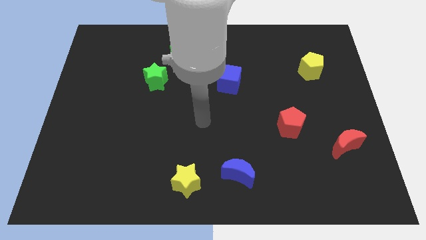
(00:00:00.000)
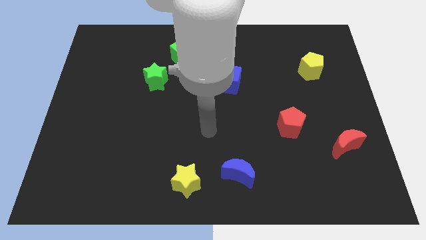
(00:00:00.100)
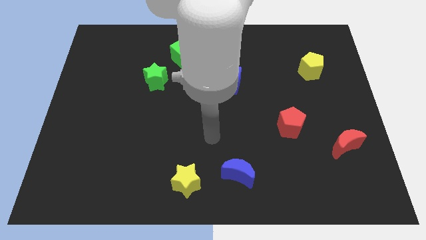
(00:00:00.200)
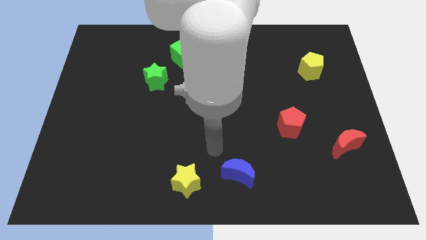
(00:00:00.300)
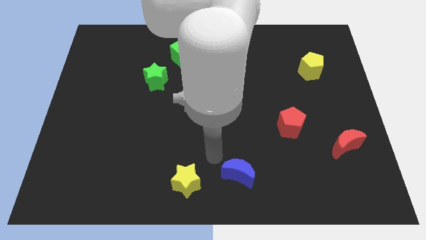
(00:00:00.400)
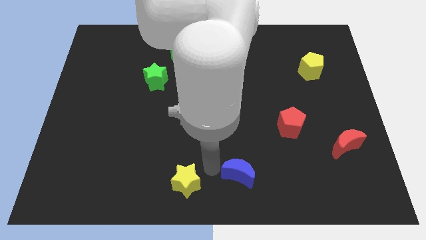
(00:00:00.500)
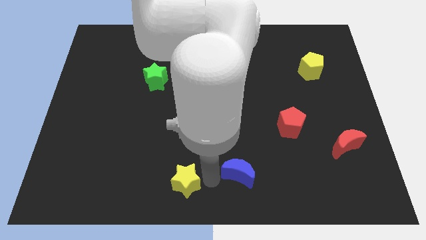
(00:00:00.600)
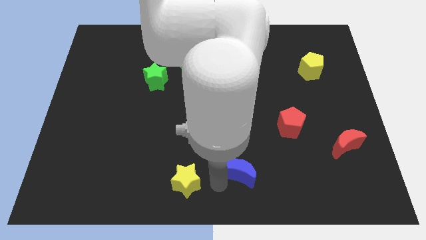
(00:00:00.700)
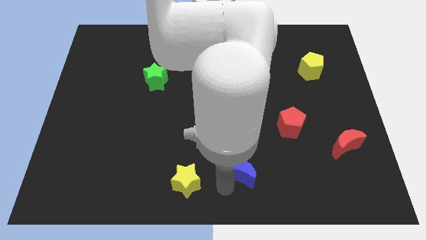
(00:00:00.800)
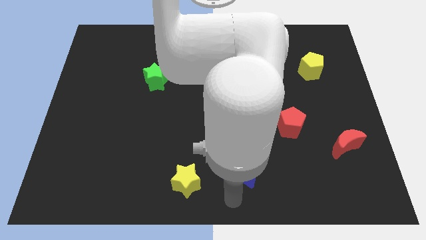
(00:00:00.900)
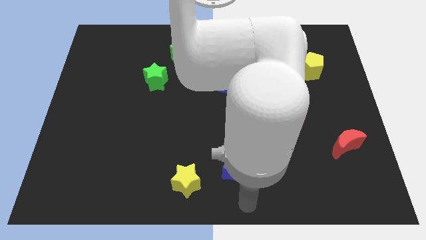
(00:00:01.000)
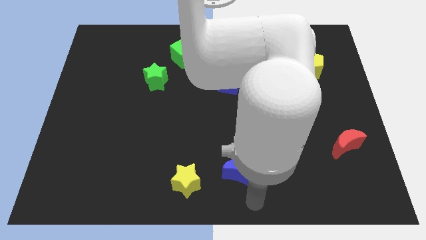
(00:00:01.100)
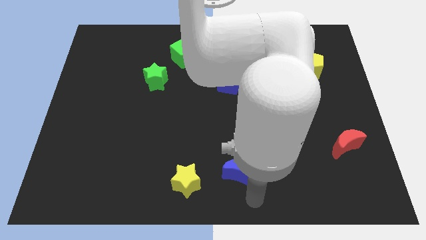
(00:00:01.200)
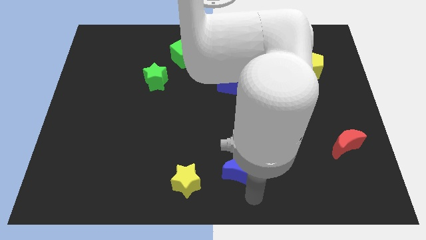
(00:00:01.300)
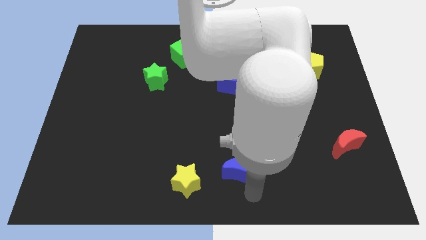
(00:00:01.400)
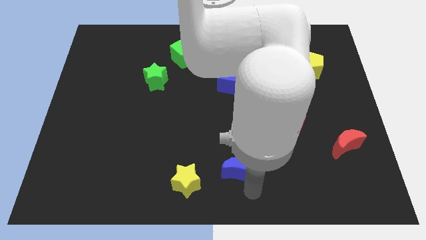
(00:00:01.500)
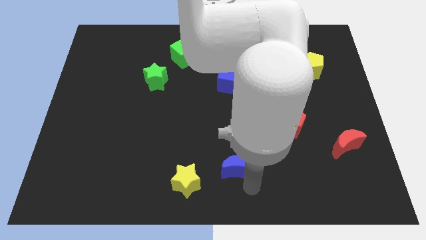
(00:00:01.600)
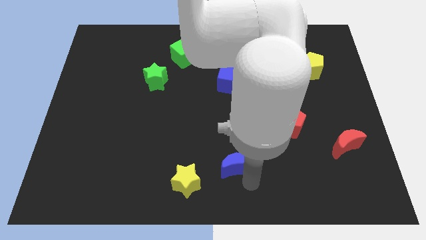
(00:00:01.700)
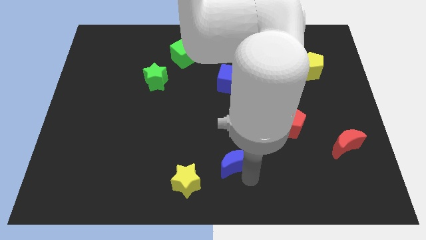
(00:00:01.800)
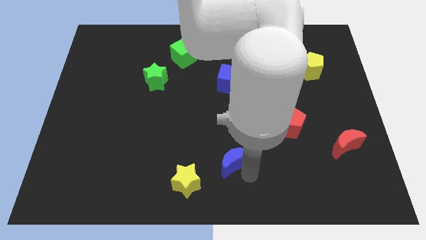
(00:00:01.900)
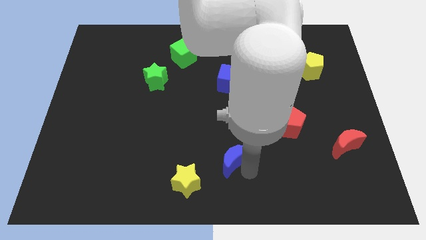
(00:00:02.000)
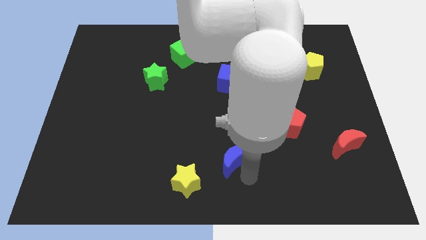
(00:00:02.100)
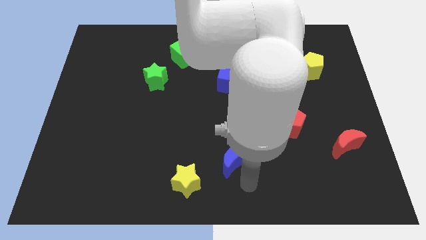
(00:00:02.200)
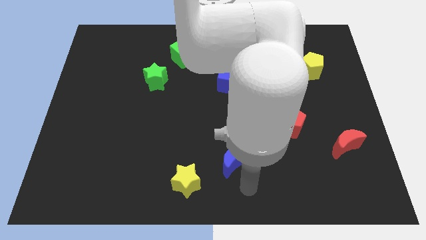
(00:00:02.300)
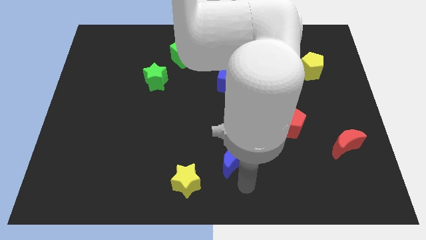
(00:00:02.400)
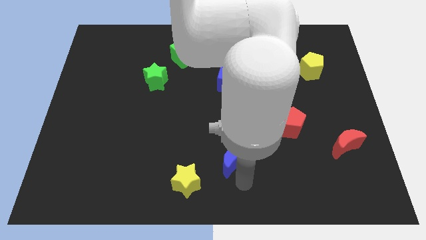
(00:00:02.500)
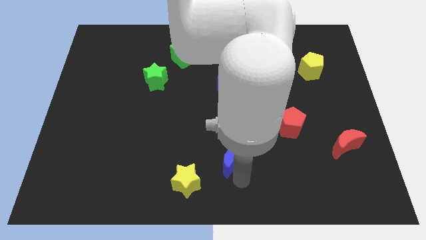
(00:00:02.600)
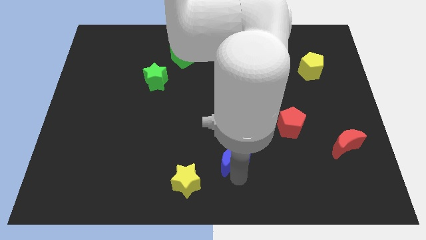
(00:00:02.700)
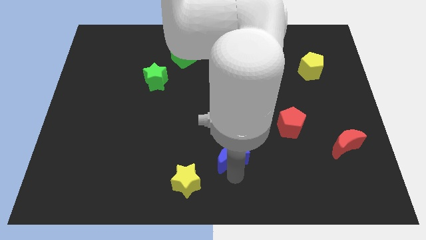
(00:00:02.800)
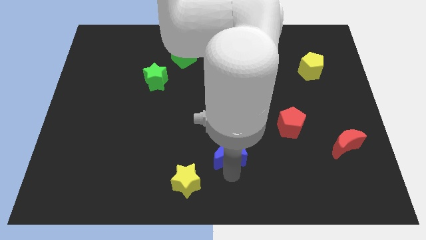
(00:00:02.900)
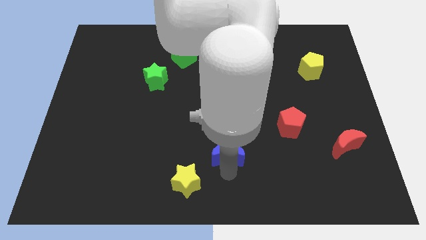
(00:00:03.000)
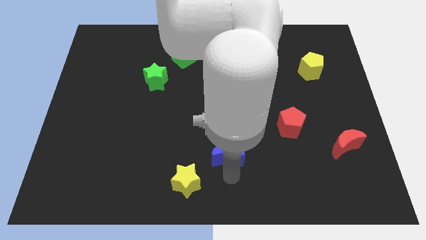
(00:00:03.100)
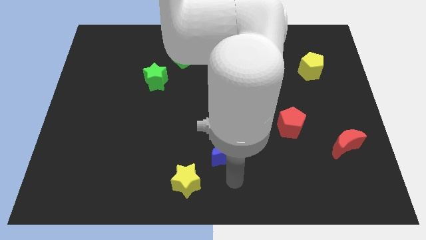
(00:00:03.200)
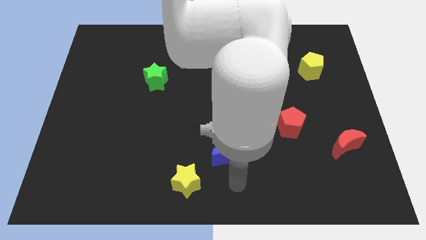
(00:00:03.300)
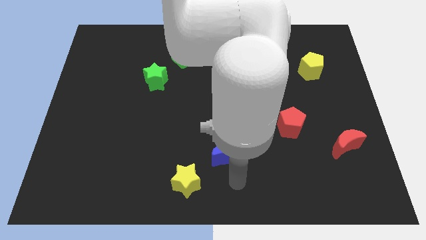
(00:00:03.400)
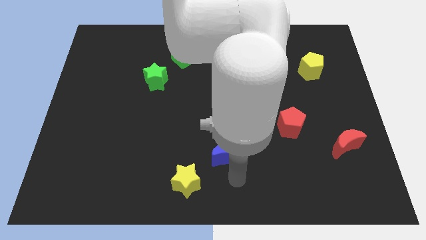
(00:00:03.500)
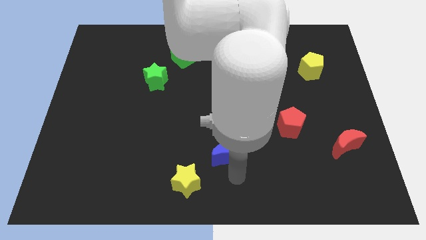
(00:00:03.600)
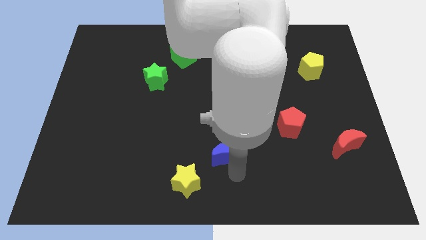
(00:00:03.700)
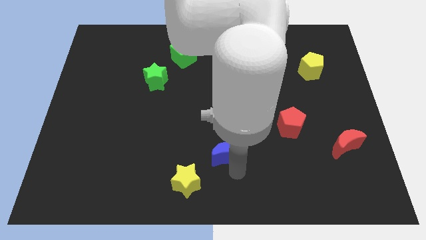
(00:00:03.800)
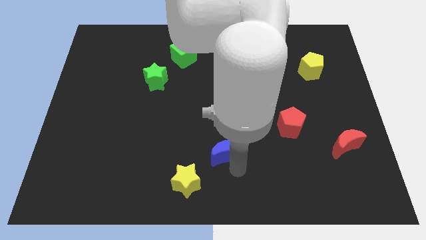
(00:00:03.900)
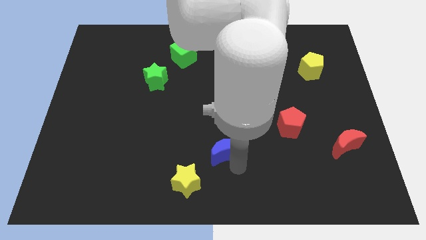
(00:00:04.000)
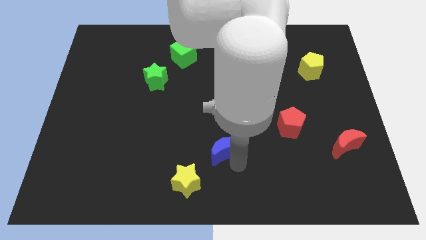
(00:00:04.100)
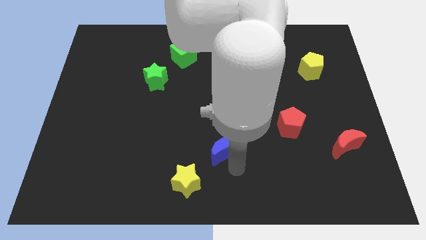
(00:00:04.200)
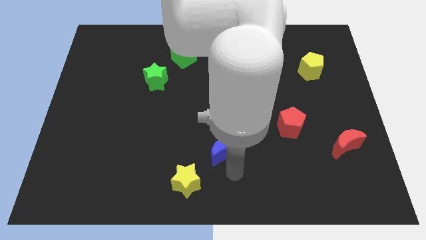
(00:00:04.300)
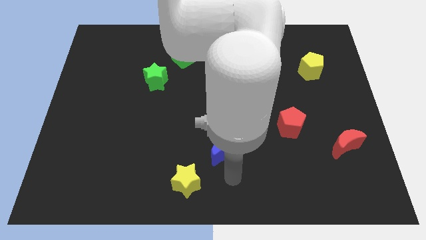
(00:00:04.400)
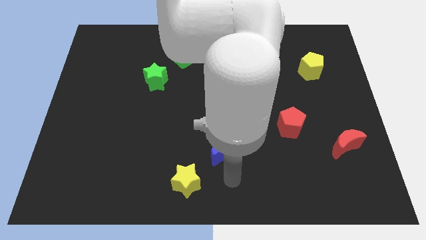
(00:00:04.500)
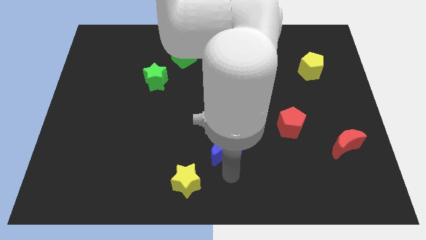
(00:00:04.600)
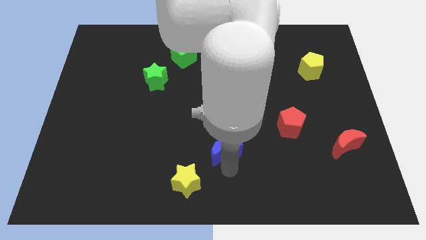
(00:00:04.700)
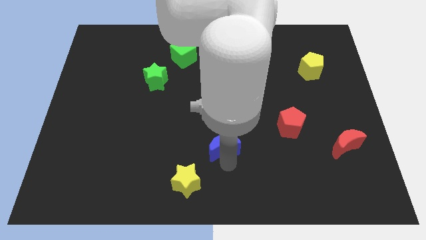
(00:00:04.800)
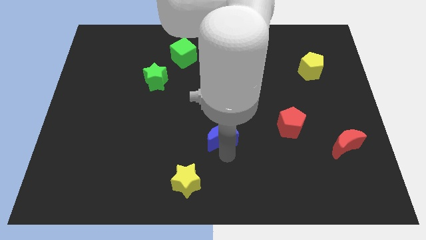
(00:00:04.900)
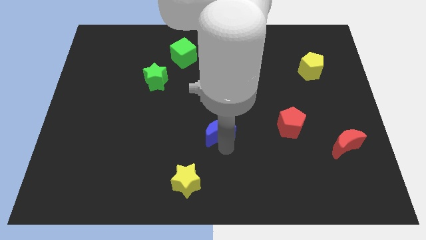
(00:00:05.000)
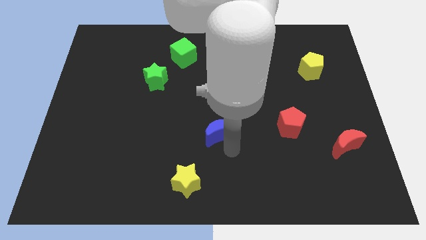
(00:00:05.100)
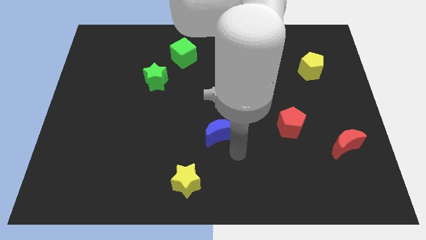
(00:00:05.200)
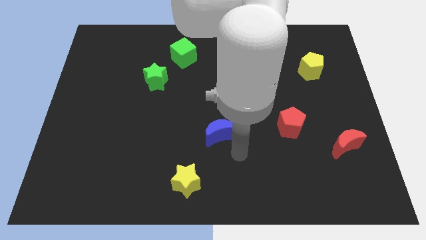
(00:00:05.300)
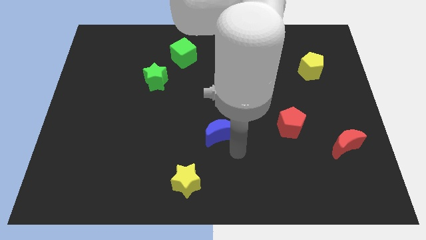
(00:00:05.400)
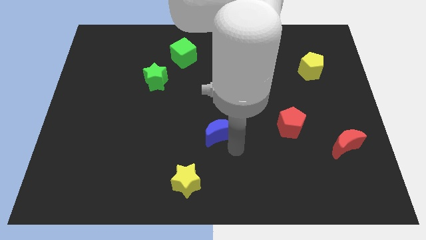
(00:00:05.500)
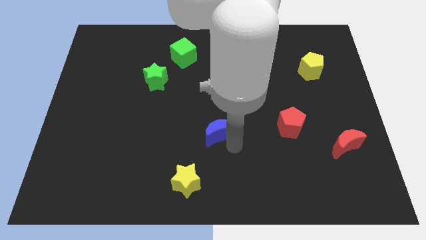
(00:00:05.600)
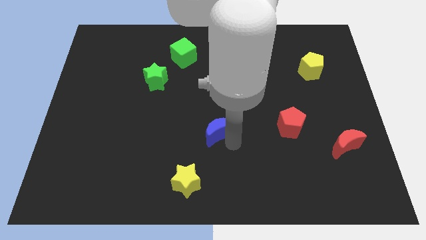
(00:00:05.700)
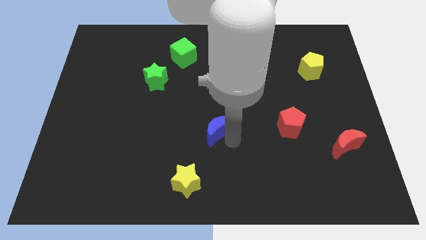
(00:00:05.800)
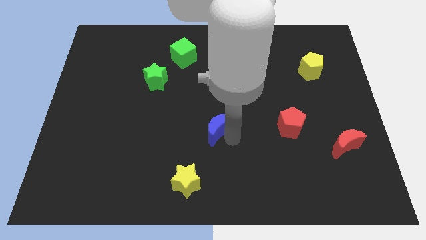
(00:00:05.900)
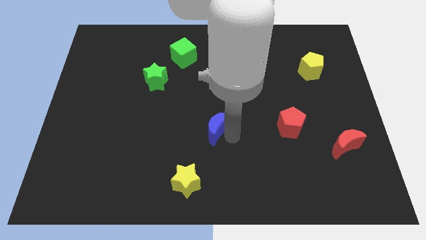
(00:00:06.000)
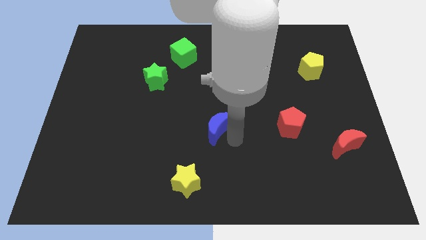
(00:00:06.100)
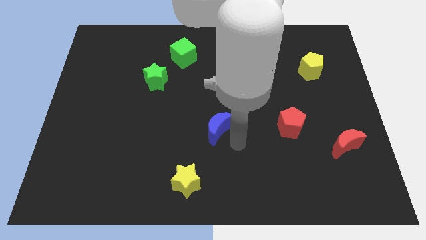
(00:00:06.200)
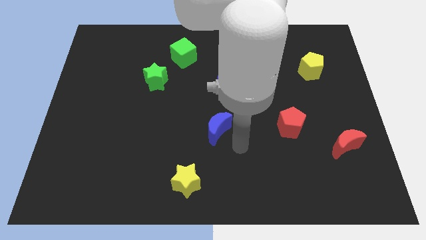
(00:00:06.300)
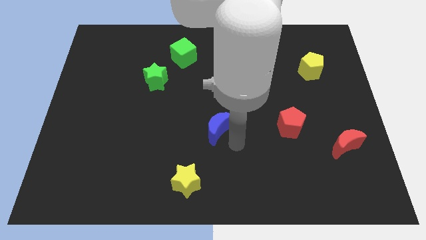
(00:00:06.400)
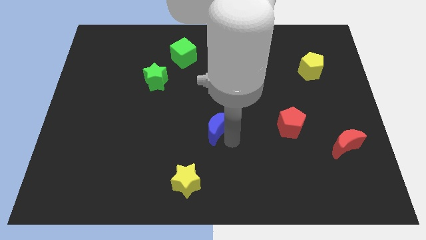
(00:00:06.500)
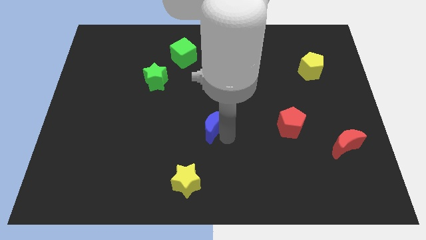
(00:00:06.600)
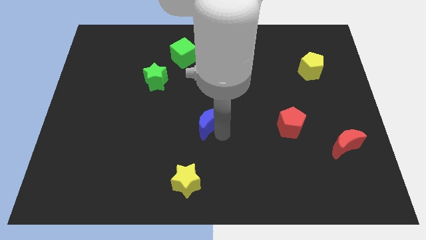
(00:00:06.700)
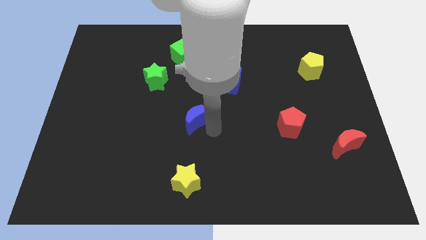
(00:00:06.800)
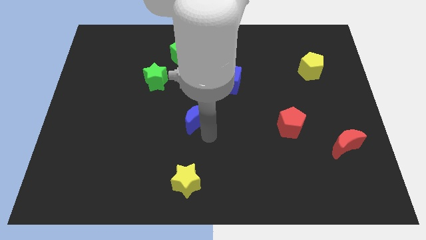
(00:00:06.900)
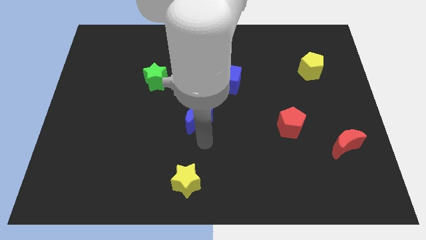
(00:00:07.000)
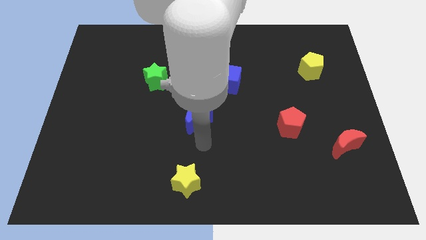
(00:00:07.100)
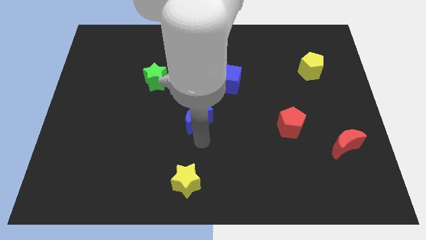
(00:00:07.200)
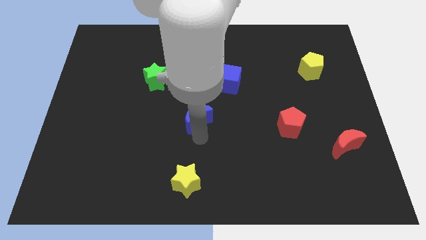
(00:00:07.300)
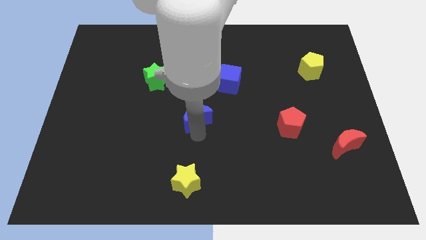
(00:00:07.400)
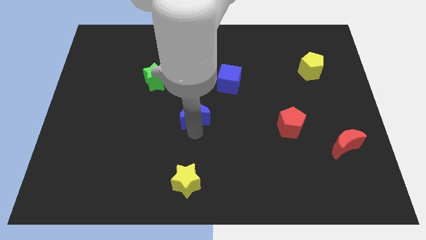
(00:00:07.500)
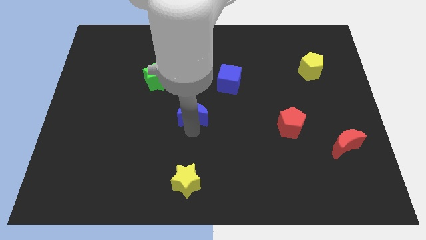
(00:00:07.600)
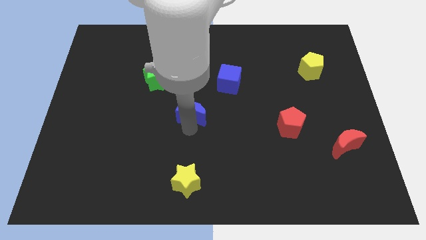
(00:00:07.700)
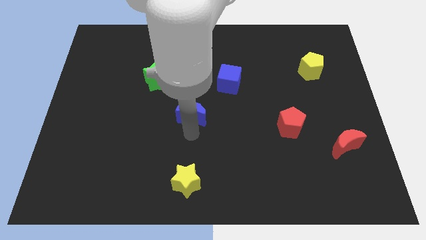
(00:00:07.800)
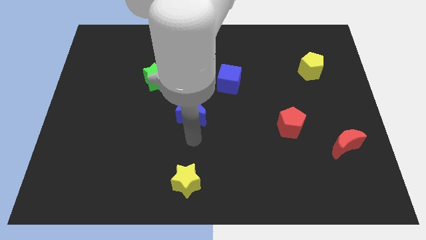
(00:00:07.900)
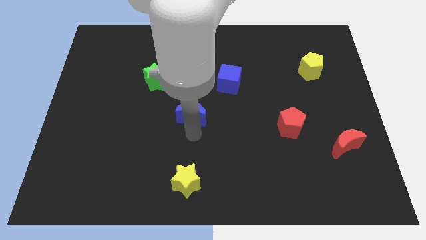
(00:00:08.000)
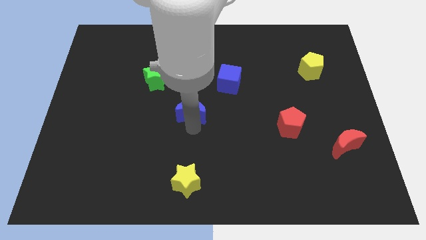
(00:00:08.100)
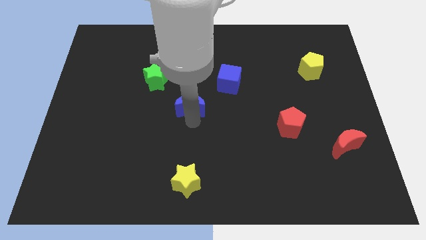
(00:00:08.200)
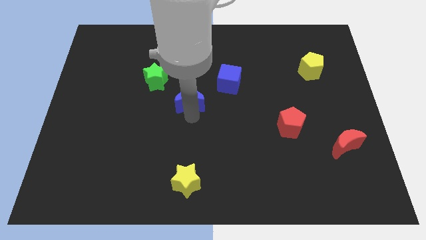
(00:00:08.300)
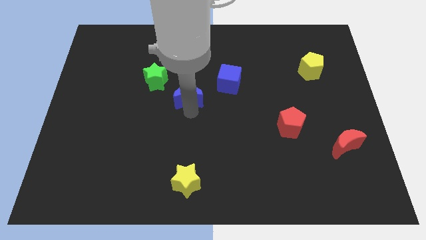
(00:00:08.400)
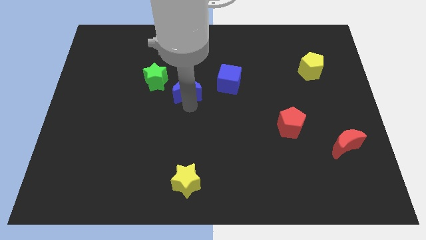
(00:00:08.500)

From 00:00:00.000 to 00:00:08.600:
put the blue moon to the left side of the blue cube
